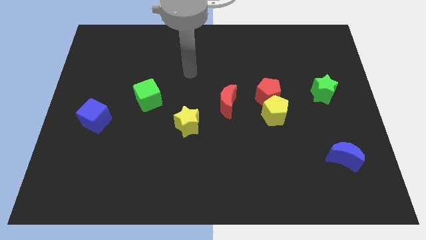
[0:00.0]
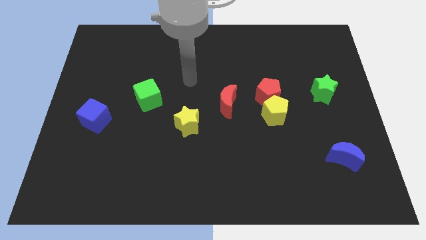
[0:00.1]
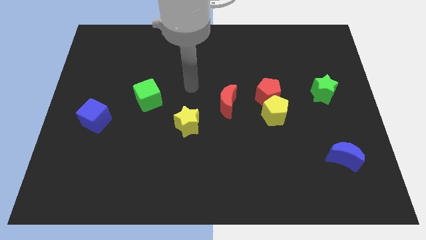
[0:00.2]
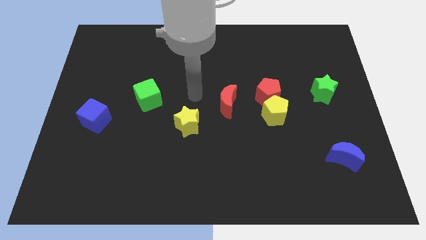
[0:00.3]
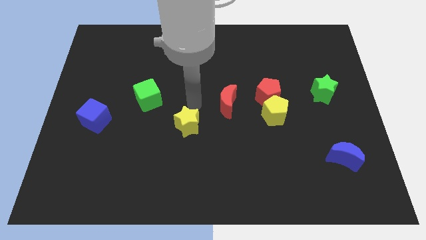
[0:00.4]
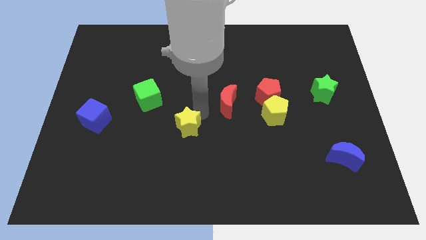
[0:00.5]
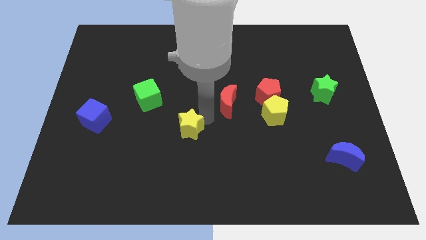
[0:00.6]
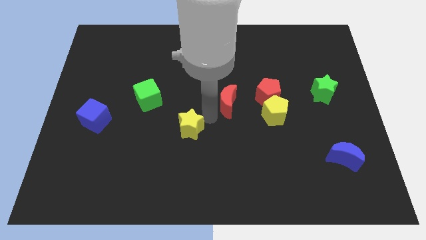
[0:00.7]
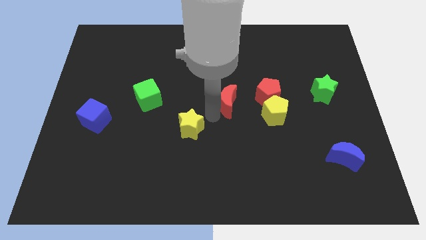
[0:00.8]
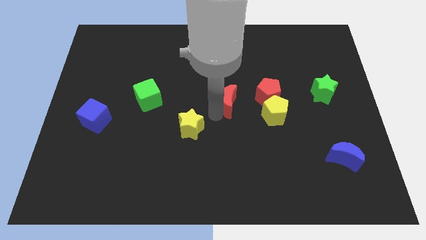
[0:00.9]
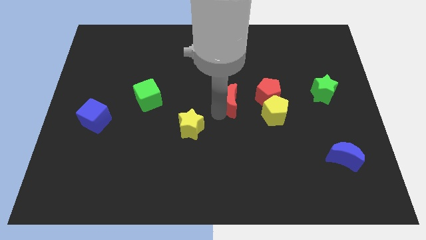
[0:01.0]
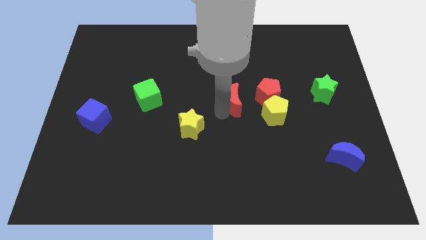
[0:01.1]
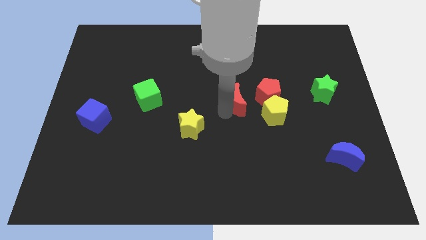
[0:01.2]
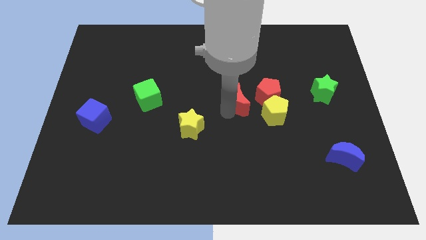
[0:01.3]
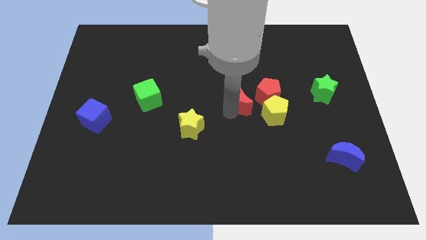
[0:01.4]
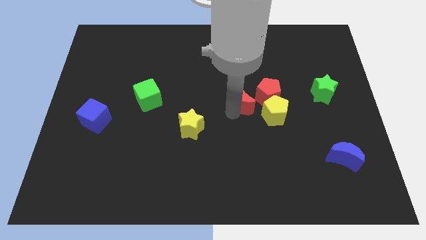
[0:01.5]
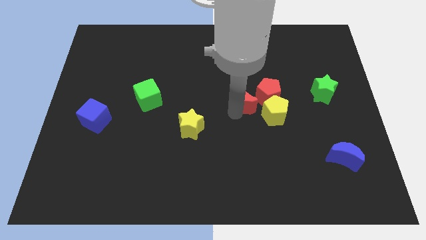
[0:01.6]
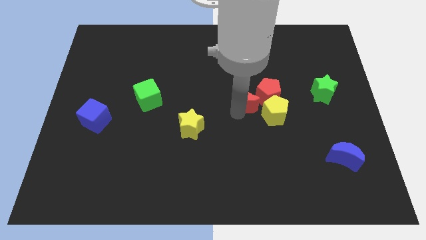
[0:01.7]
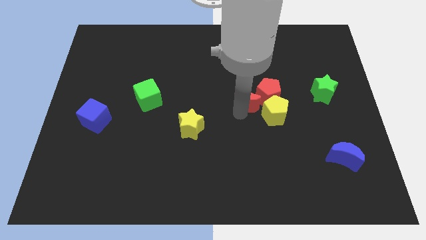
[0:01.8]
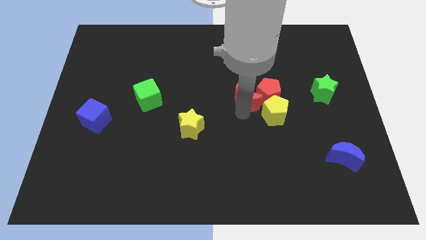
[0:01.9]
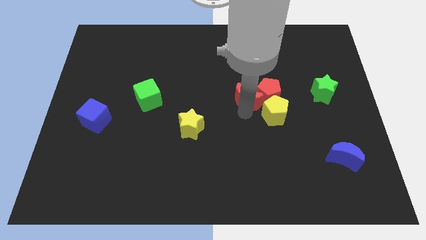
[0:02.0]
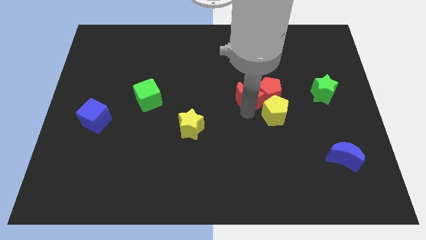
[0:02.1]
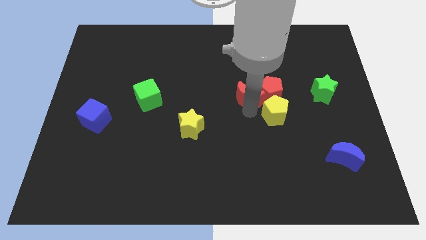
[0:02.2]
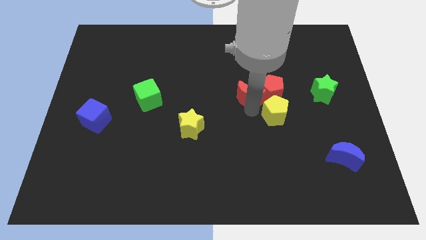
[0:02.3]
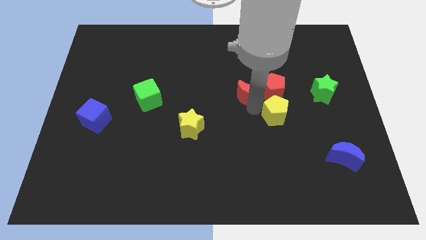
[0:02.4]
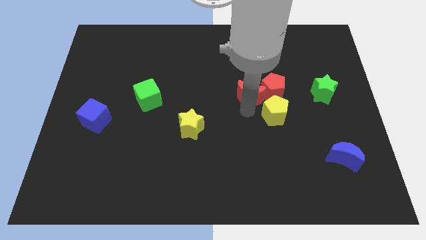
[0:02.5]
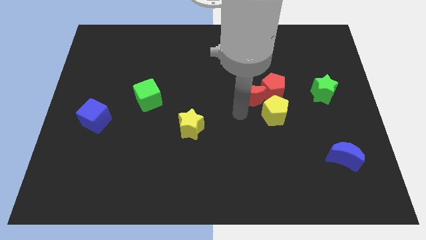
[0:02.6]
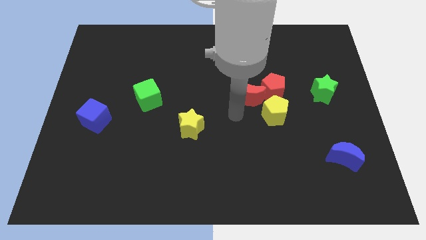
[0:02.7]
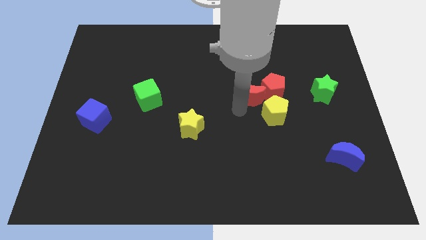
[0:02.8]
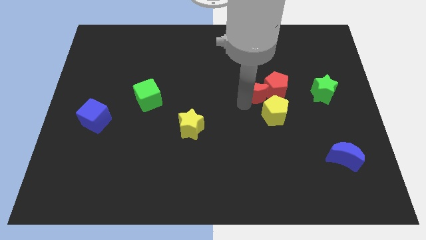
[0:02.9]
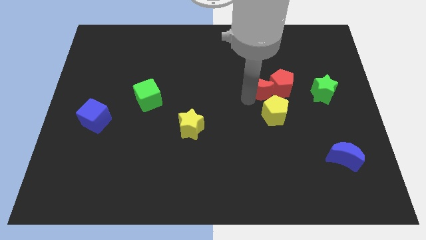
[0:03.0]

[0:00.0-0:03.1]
slide the red moon up and then right a little bit

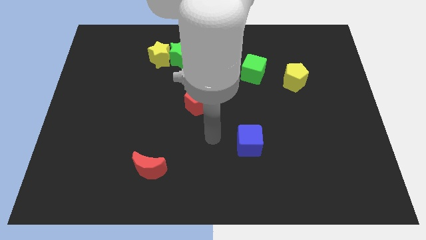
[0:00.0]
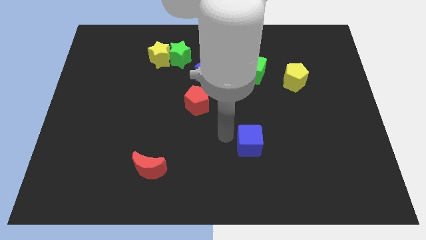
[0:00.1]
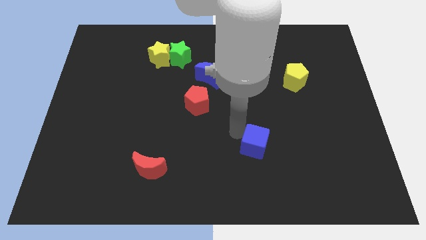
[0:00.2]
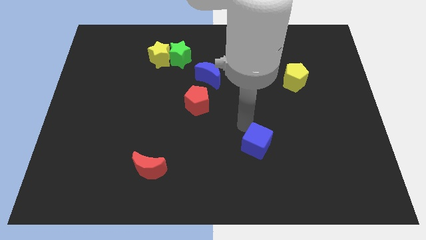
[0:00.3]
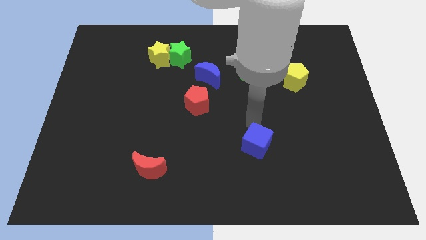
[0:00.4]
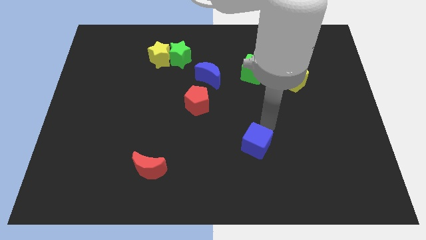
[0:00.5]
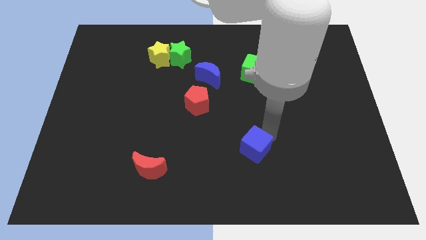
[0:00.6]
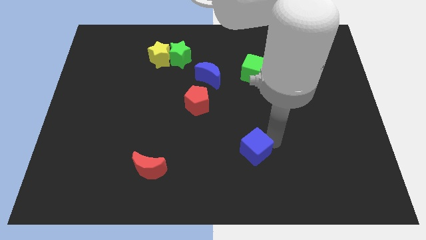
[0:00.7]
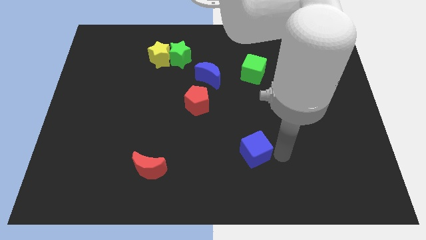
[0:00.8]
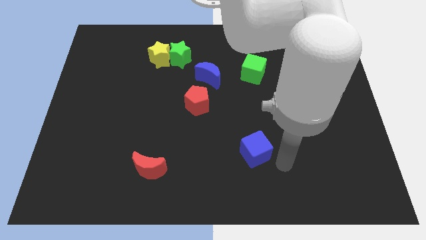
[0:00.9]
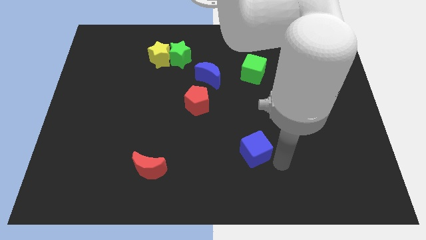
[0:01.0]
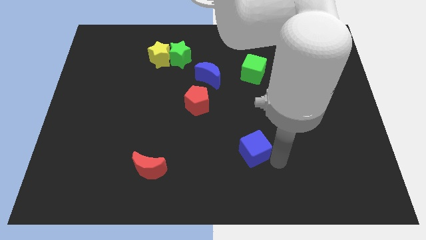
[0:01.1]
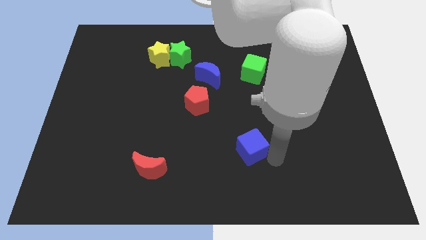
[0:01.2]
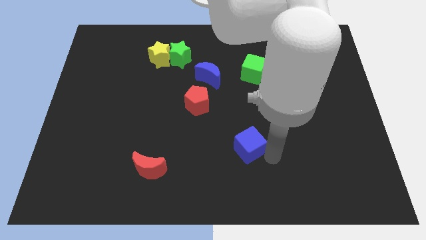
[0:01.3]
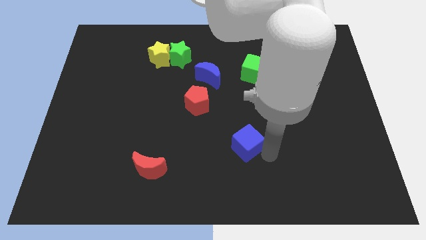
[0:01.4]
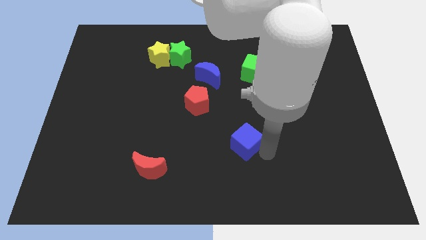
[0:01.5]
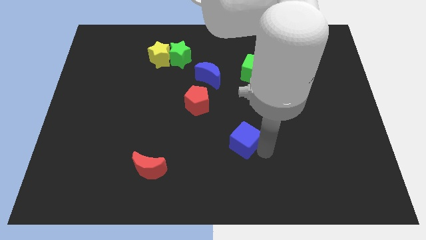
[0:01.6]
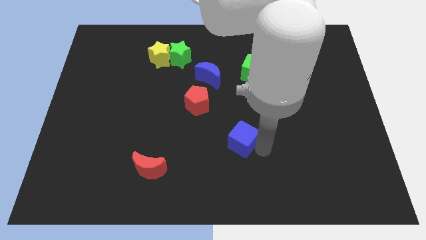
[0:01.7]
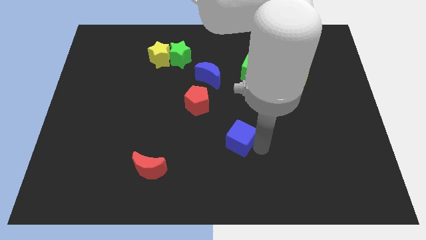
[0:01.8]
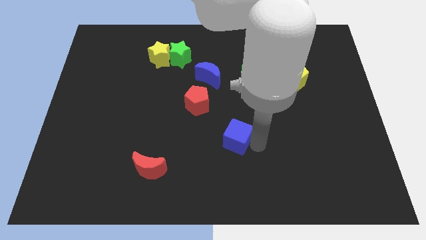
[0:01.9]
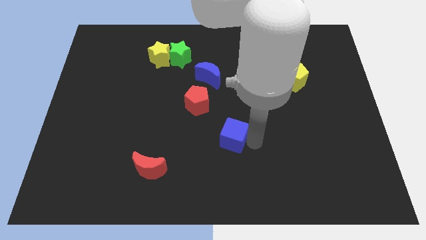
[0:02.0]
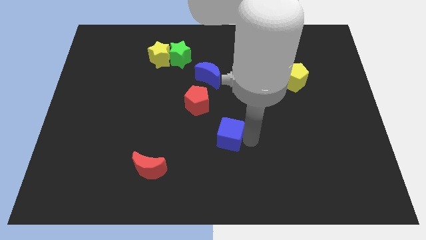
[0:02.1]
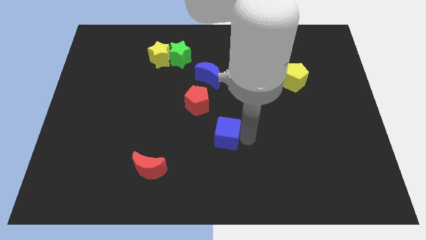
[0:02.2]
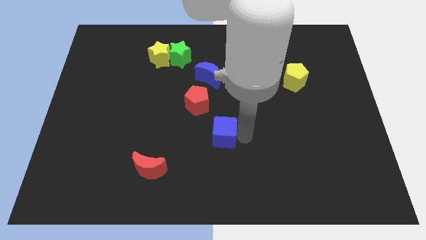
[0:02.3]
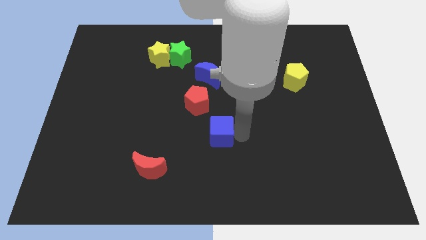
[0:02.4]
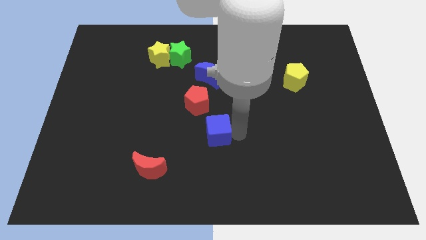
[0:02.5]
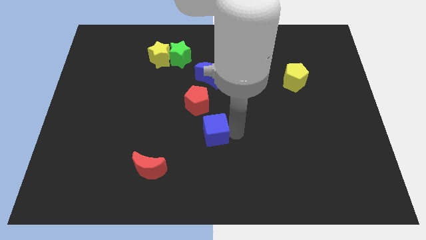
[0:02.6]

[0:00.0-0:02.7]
slightly slide the blue cube left

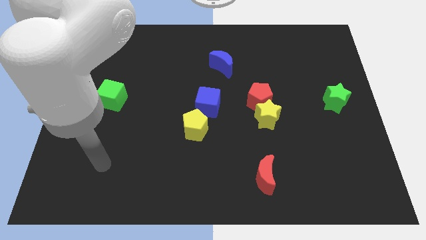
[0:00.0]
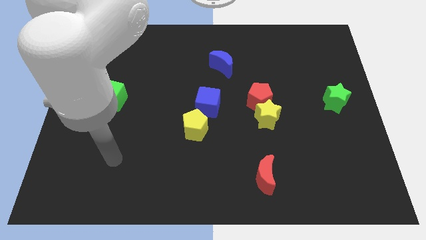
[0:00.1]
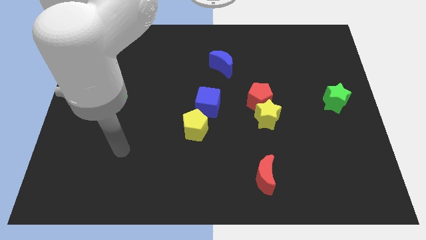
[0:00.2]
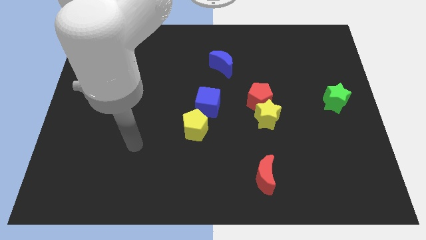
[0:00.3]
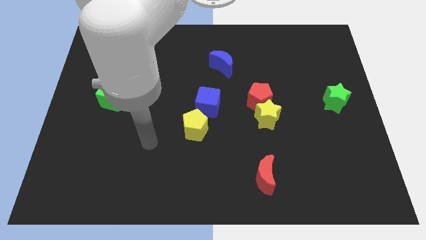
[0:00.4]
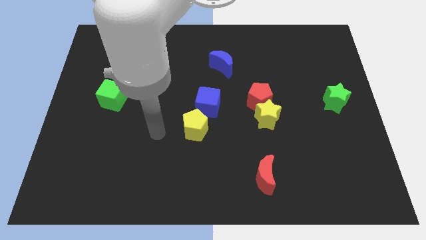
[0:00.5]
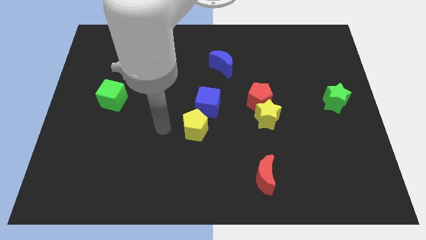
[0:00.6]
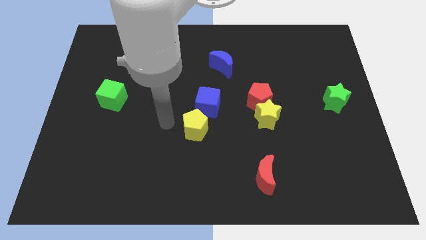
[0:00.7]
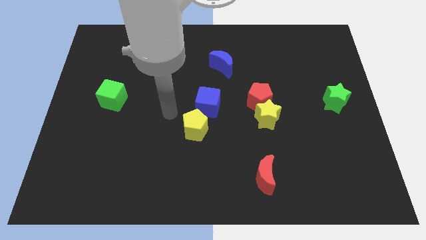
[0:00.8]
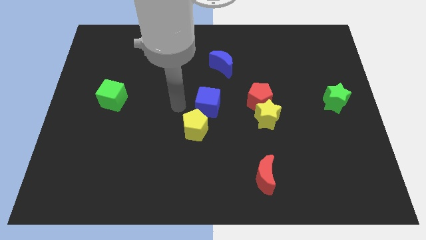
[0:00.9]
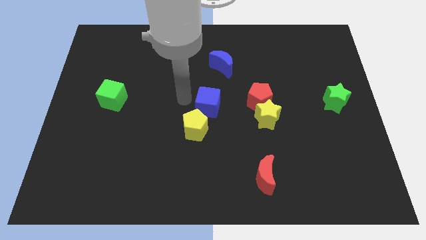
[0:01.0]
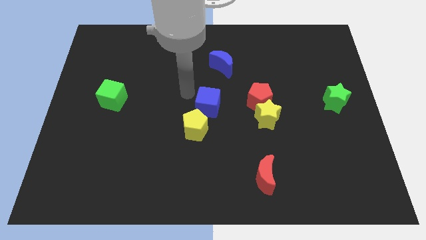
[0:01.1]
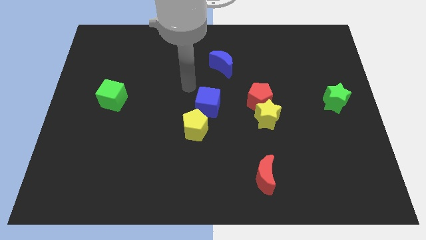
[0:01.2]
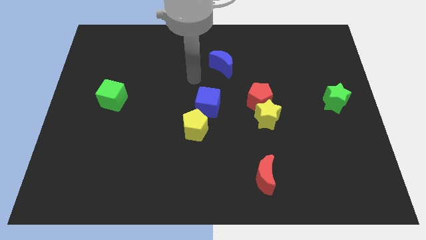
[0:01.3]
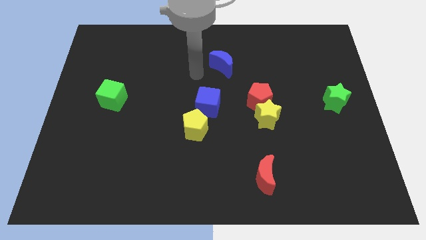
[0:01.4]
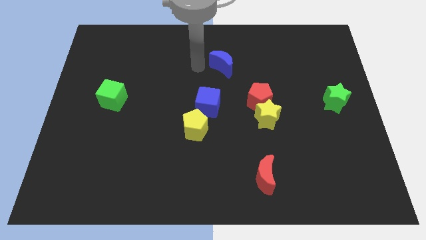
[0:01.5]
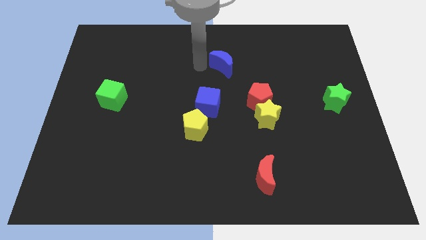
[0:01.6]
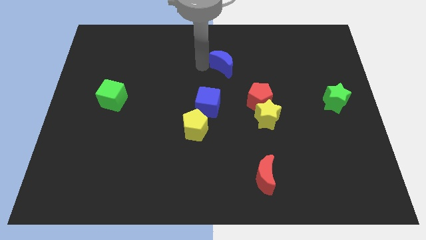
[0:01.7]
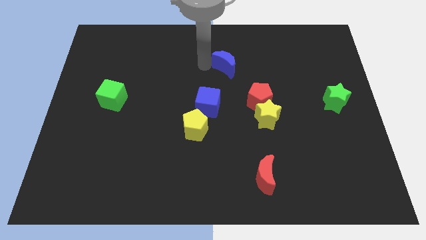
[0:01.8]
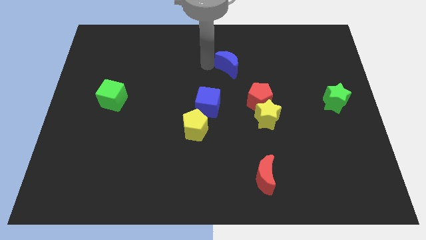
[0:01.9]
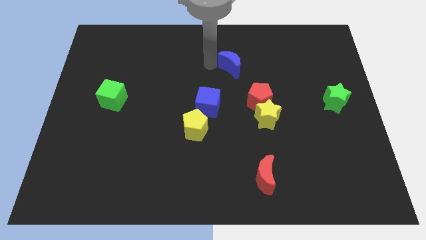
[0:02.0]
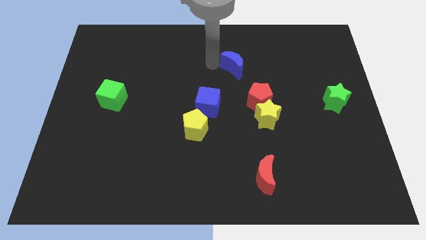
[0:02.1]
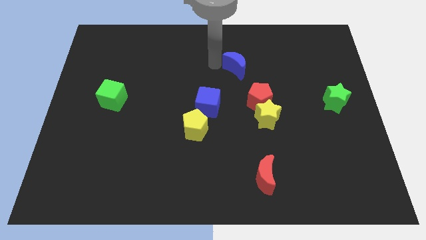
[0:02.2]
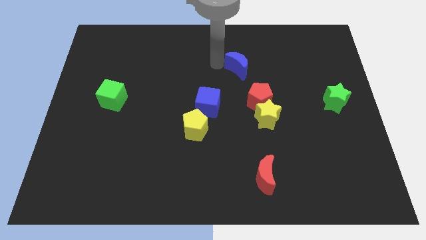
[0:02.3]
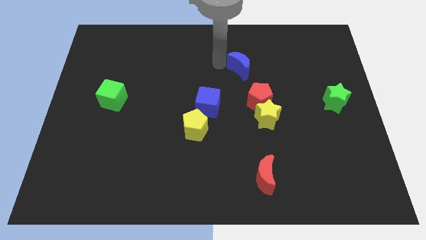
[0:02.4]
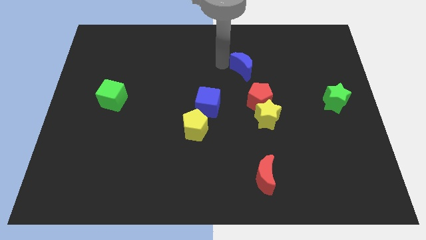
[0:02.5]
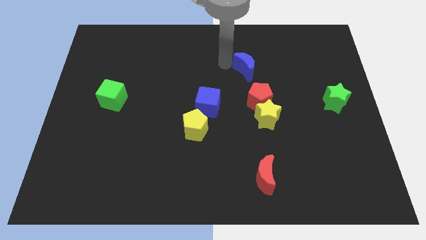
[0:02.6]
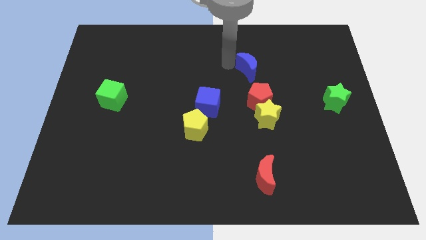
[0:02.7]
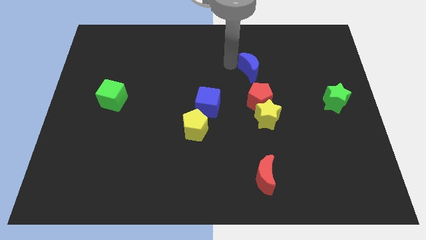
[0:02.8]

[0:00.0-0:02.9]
slightly push the blue moon to the right
